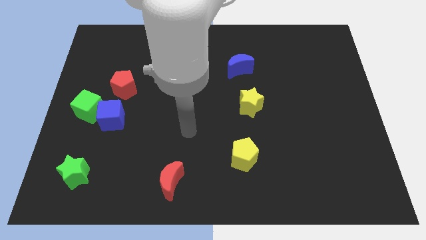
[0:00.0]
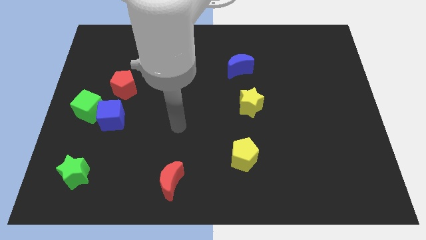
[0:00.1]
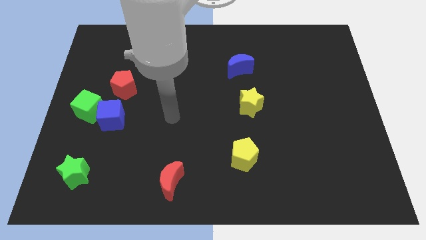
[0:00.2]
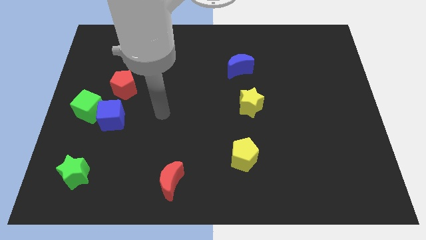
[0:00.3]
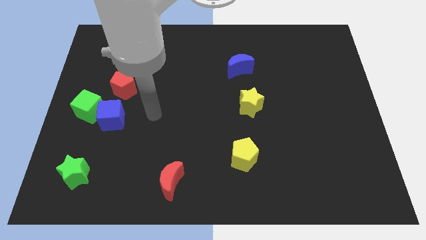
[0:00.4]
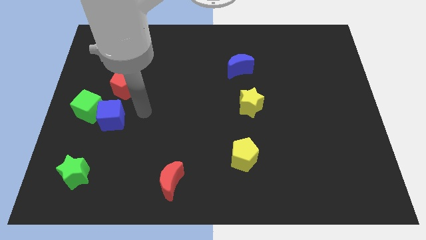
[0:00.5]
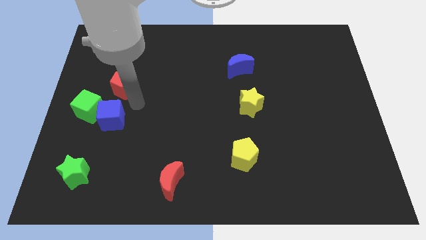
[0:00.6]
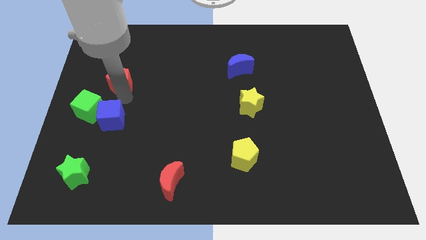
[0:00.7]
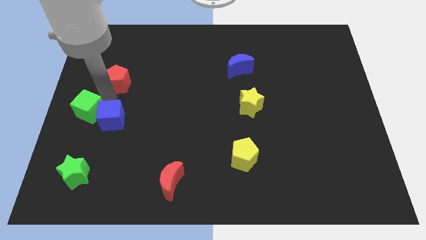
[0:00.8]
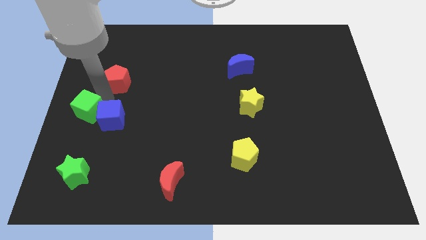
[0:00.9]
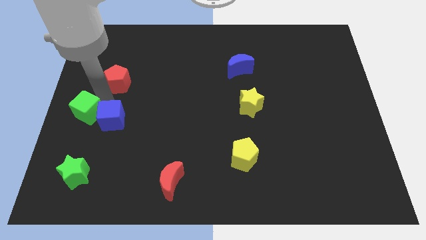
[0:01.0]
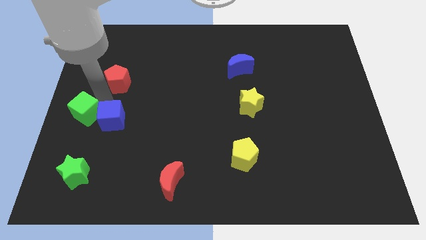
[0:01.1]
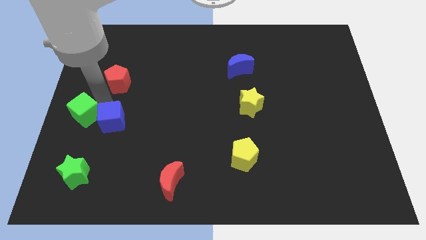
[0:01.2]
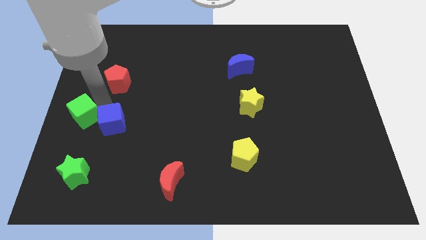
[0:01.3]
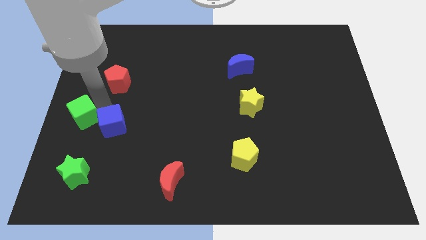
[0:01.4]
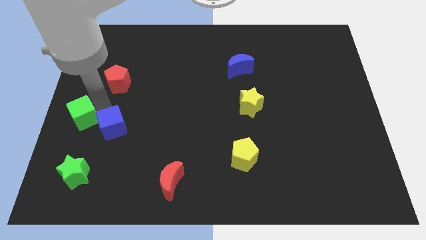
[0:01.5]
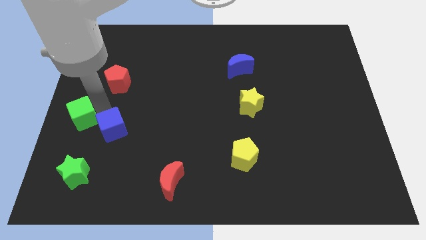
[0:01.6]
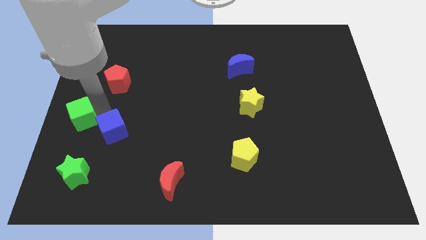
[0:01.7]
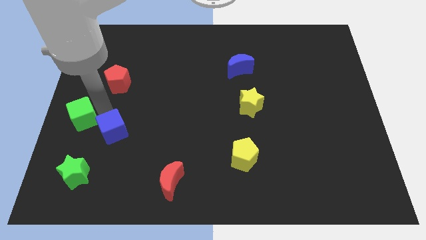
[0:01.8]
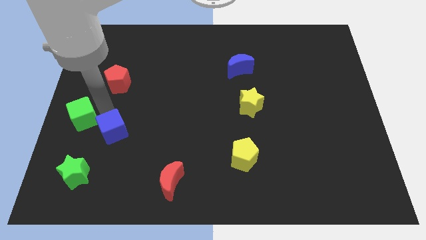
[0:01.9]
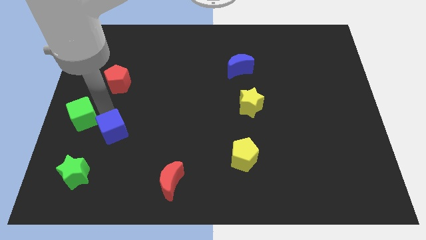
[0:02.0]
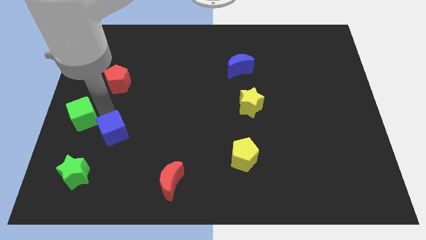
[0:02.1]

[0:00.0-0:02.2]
move the blue cube away from the green cube and red pentagon

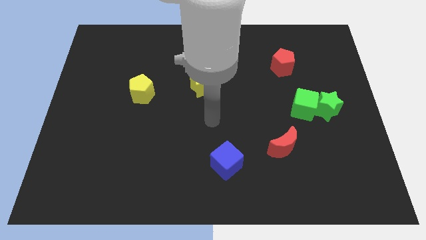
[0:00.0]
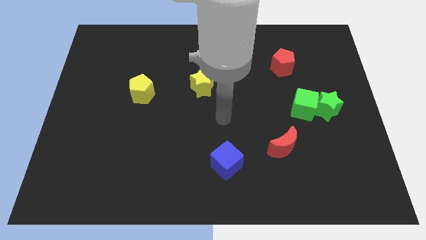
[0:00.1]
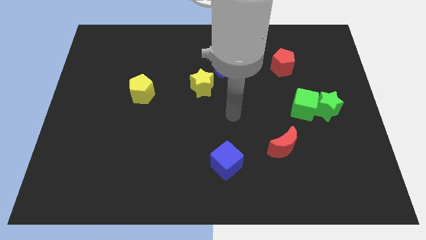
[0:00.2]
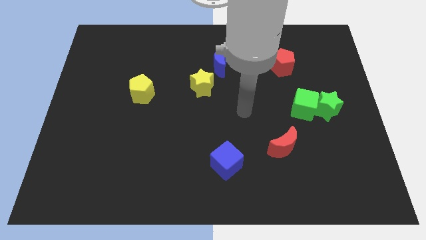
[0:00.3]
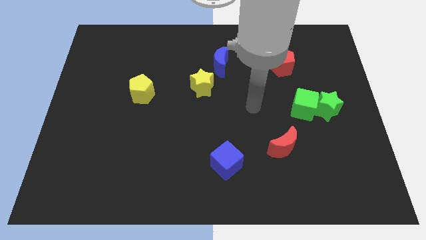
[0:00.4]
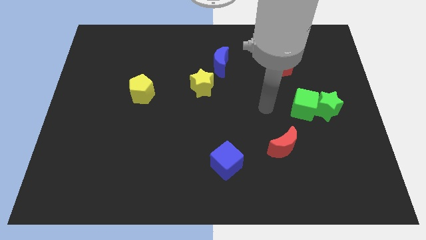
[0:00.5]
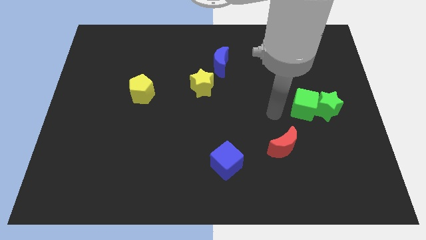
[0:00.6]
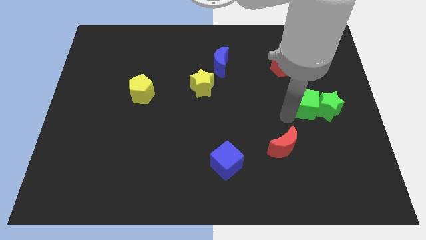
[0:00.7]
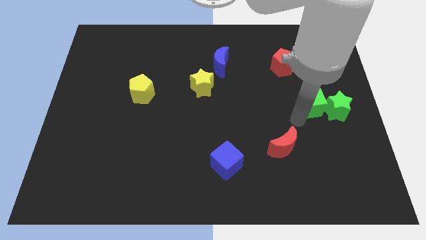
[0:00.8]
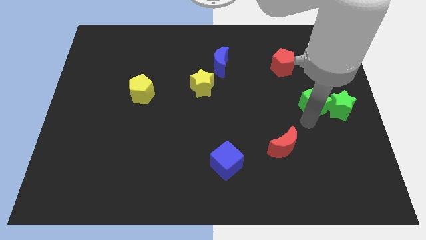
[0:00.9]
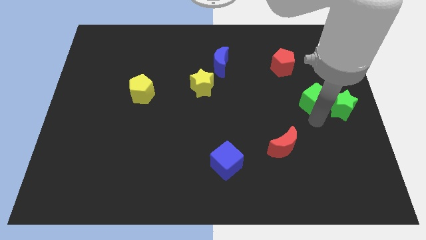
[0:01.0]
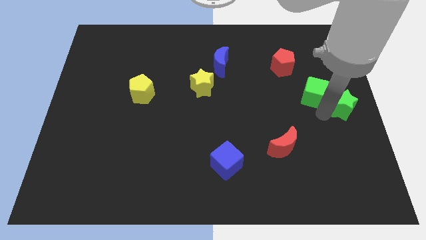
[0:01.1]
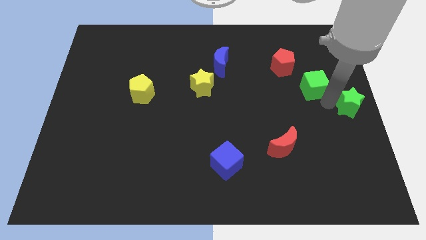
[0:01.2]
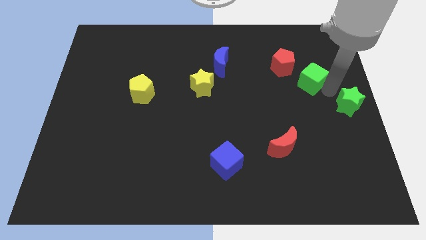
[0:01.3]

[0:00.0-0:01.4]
separate the green cube from the green star

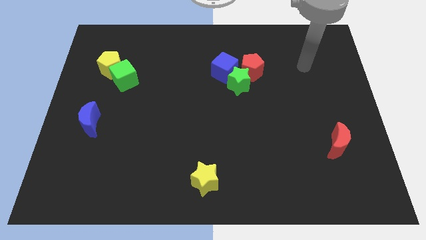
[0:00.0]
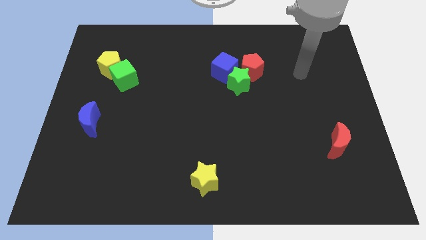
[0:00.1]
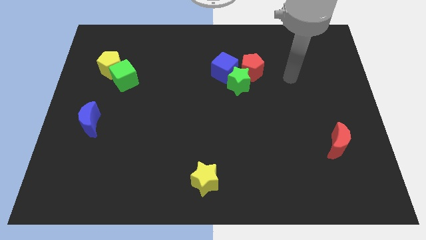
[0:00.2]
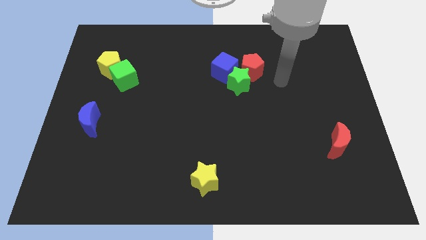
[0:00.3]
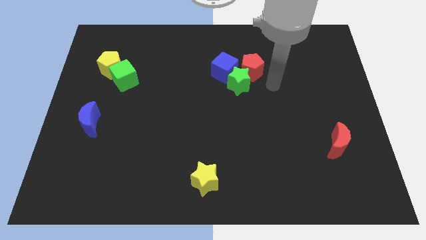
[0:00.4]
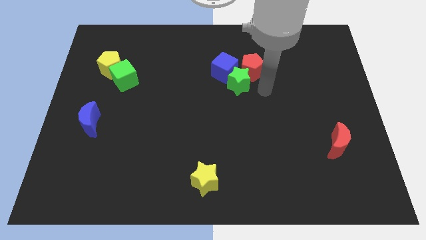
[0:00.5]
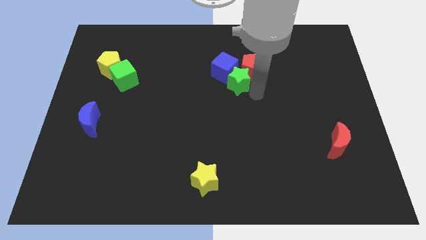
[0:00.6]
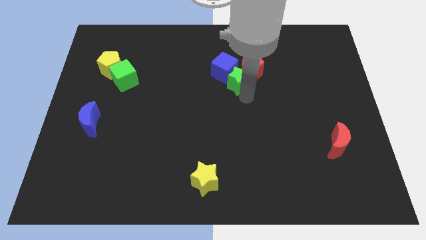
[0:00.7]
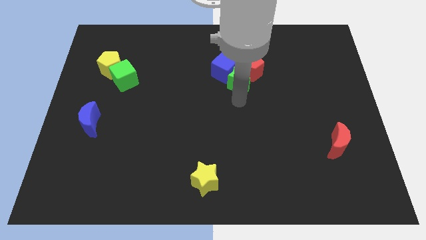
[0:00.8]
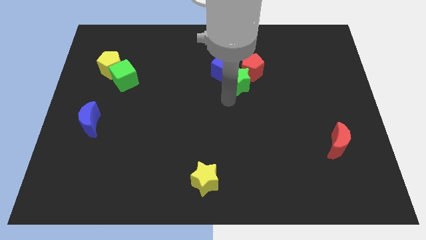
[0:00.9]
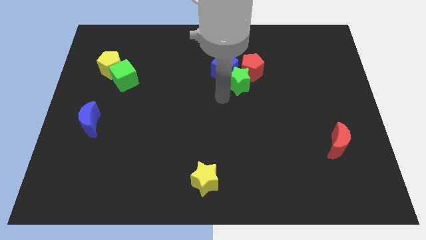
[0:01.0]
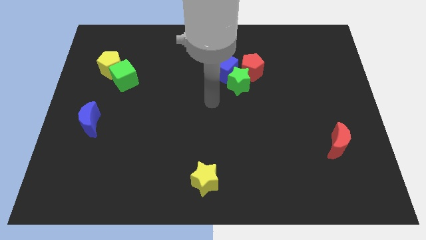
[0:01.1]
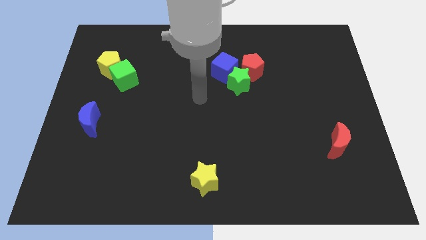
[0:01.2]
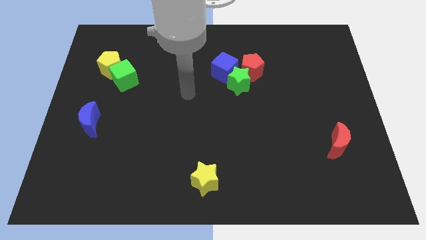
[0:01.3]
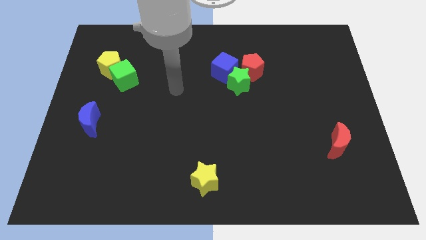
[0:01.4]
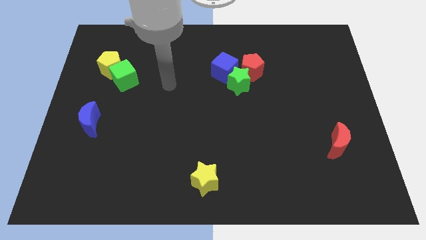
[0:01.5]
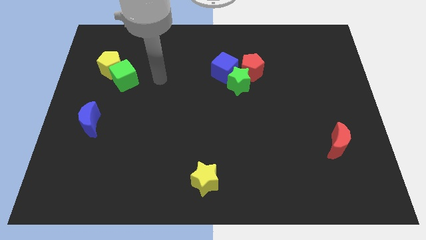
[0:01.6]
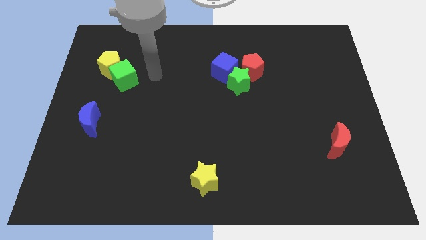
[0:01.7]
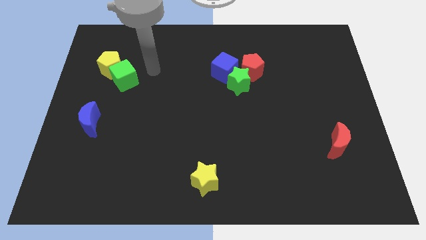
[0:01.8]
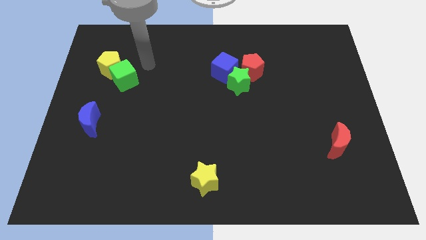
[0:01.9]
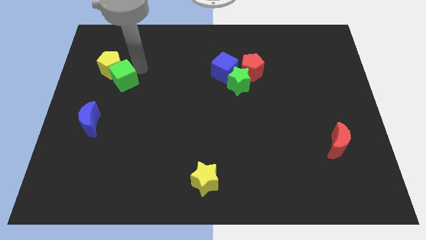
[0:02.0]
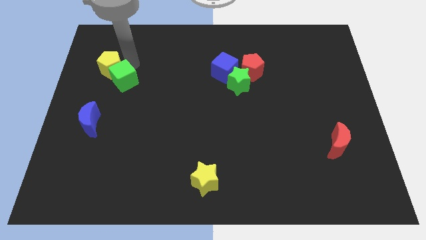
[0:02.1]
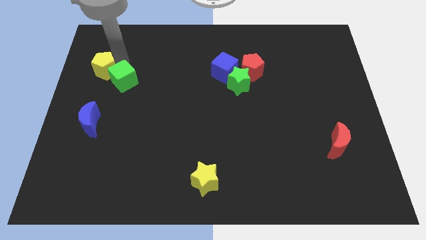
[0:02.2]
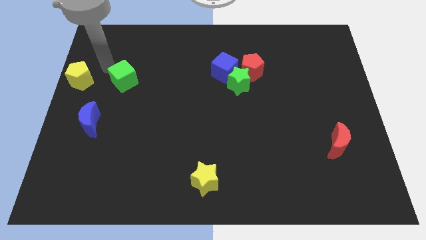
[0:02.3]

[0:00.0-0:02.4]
pull the green cube apart from the yellow pentagon

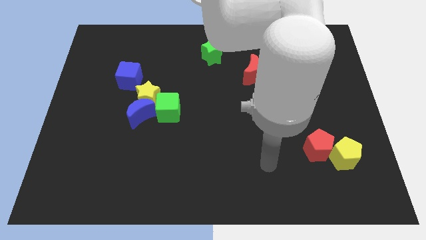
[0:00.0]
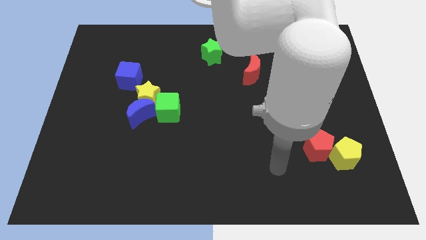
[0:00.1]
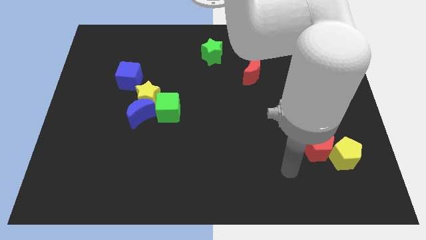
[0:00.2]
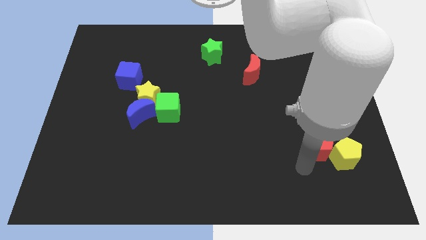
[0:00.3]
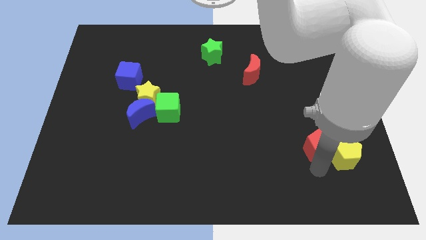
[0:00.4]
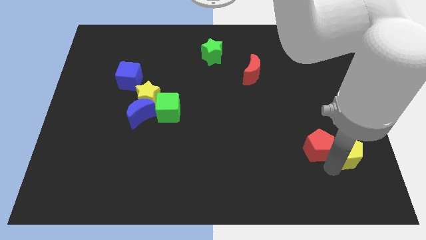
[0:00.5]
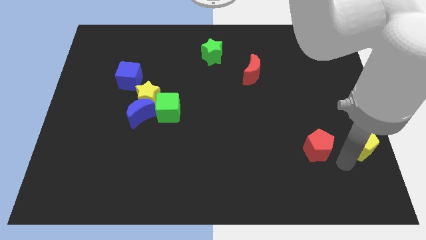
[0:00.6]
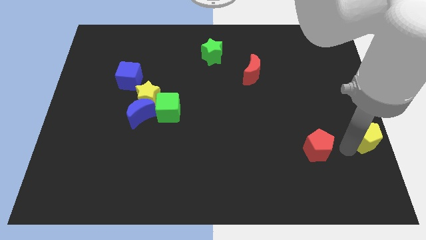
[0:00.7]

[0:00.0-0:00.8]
move the red pentagon away from the yellow pentagon

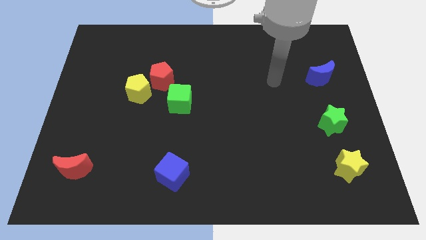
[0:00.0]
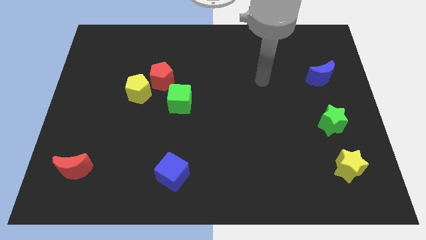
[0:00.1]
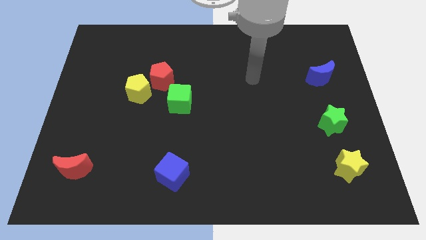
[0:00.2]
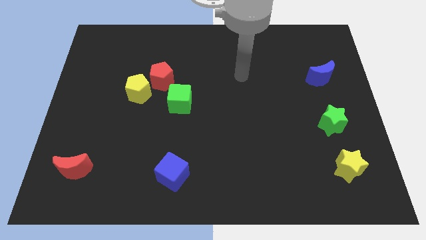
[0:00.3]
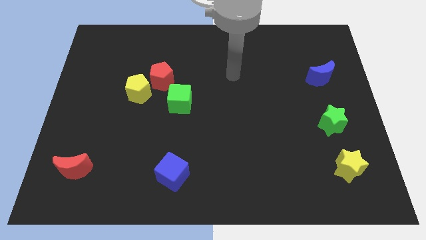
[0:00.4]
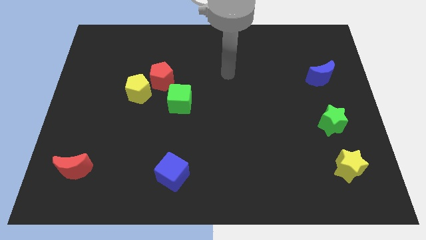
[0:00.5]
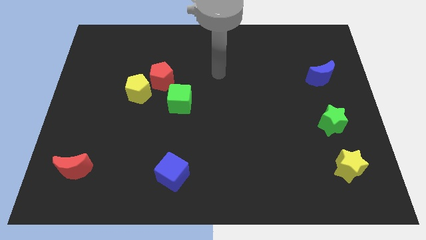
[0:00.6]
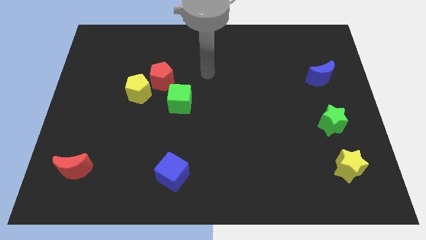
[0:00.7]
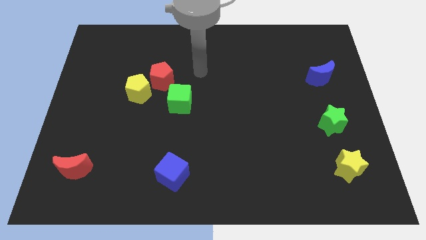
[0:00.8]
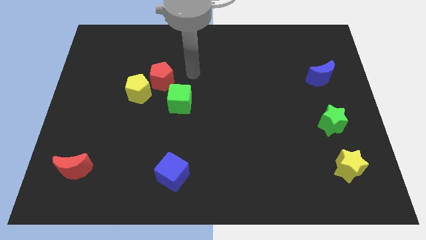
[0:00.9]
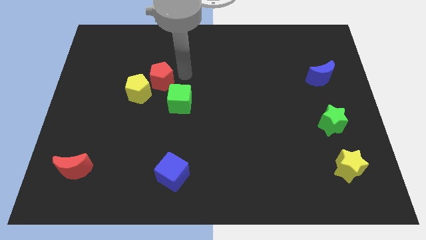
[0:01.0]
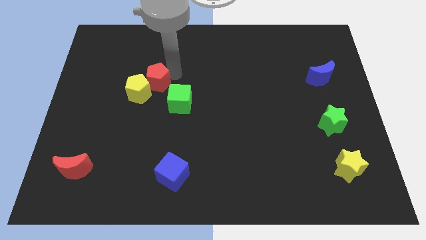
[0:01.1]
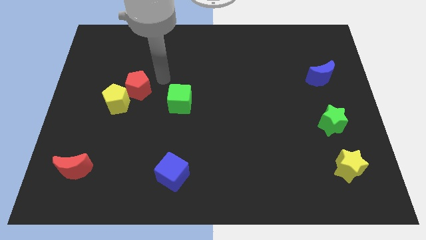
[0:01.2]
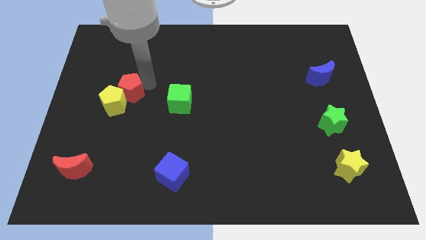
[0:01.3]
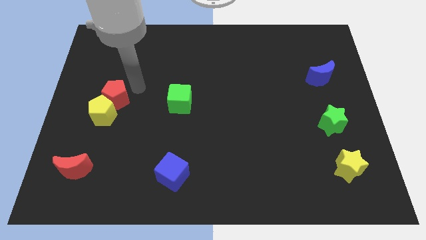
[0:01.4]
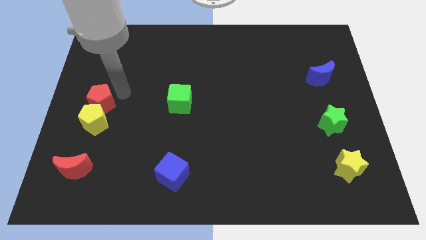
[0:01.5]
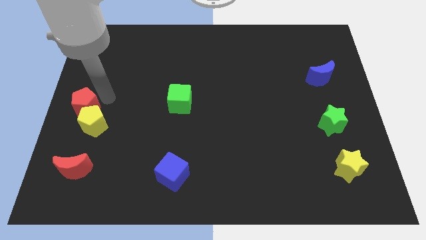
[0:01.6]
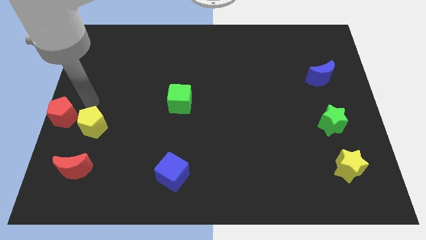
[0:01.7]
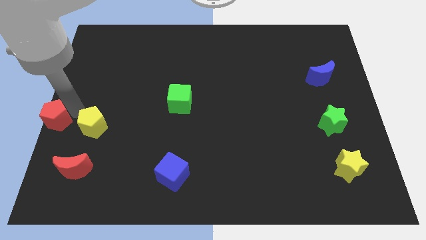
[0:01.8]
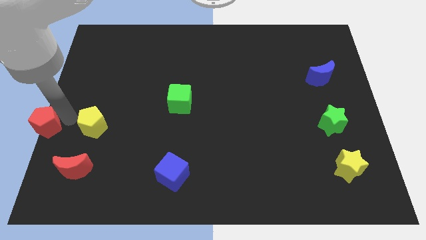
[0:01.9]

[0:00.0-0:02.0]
pull the yellow pentagon apart from the red pentagon

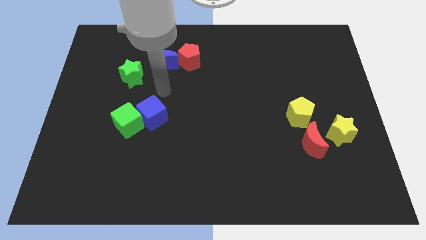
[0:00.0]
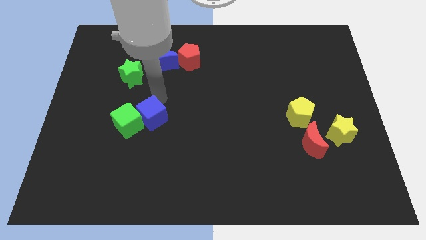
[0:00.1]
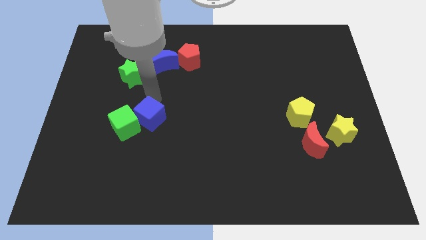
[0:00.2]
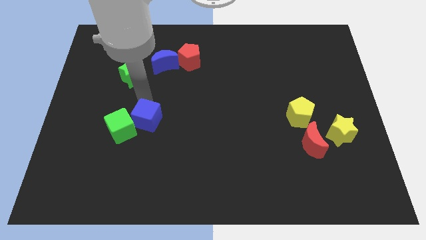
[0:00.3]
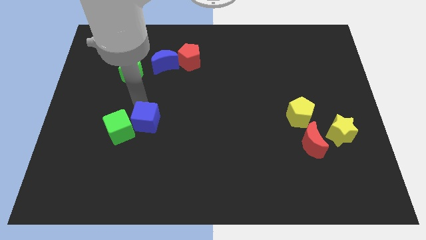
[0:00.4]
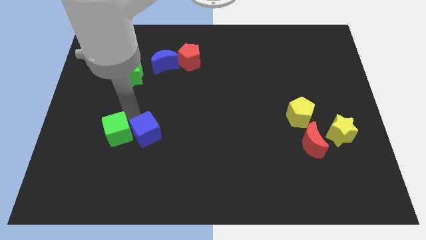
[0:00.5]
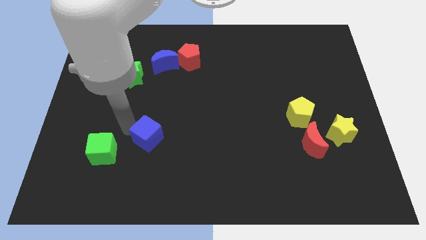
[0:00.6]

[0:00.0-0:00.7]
separate the blue cube from the green cube

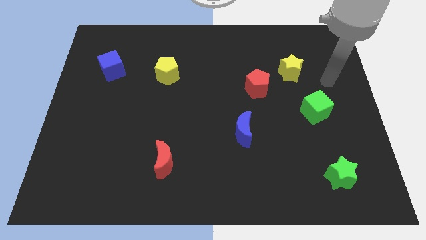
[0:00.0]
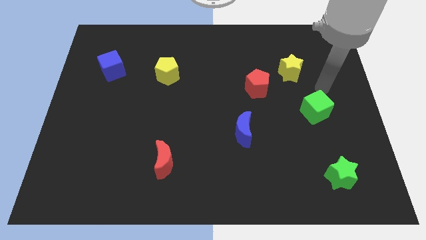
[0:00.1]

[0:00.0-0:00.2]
move the red pentagon away from the yellow star
